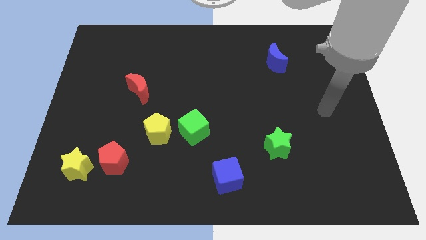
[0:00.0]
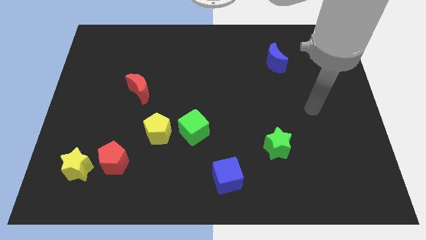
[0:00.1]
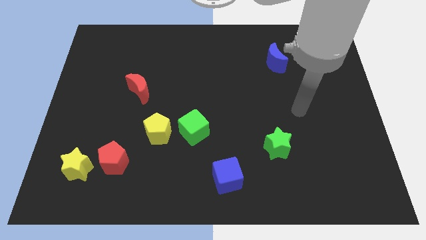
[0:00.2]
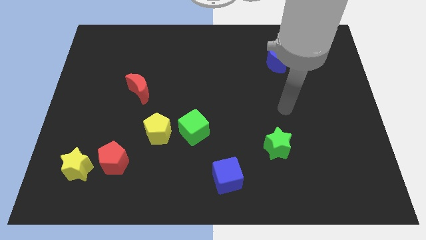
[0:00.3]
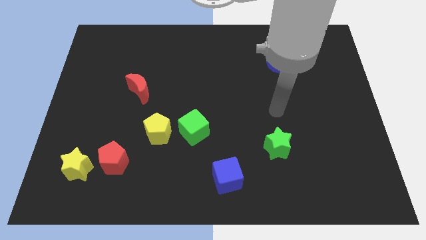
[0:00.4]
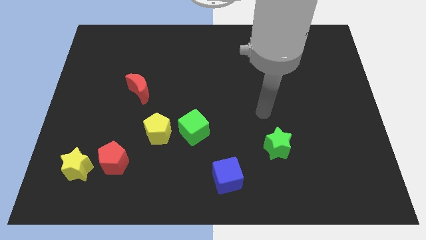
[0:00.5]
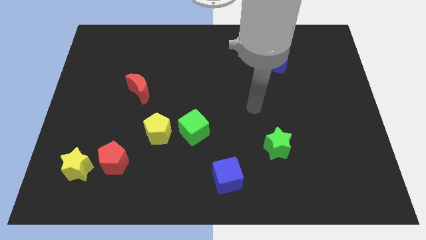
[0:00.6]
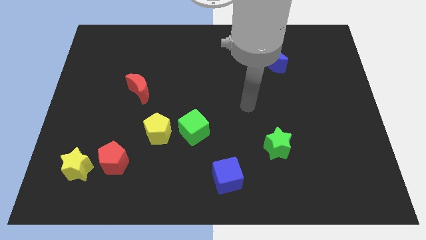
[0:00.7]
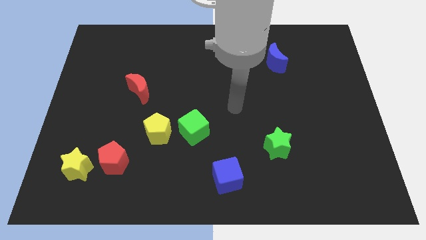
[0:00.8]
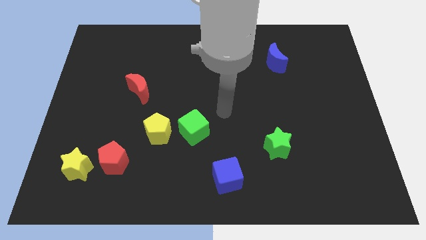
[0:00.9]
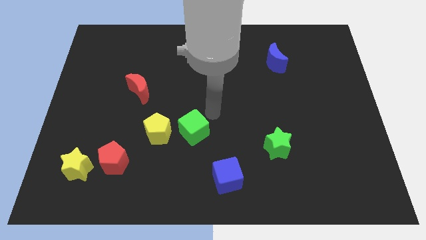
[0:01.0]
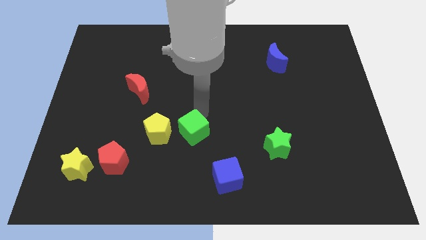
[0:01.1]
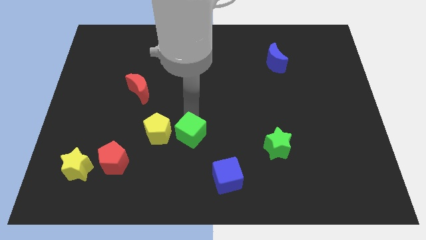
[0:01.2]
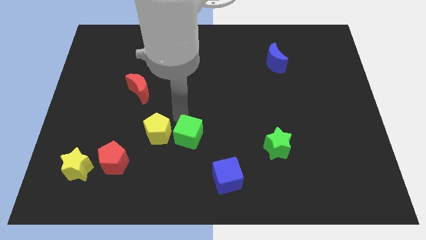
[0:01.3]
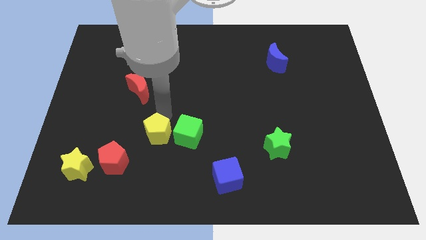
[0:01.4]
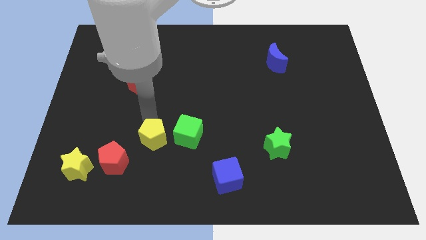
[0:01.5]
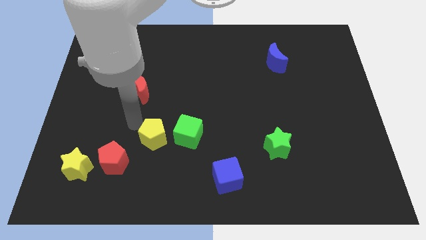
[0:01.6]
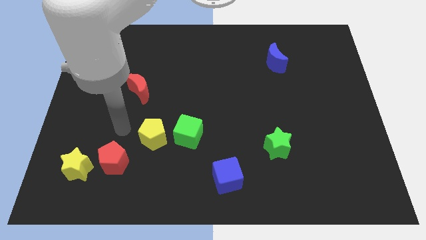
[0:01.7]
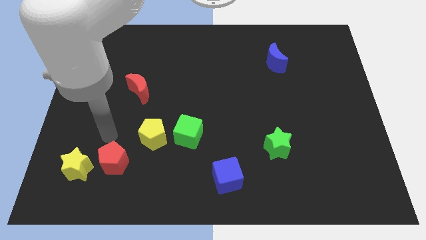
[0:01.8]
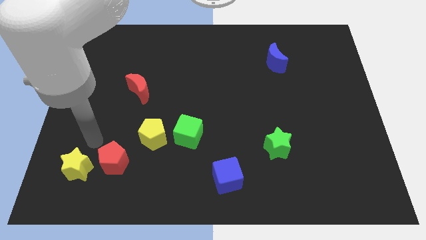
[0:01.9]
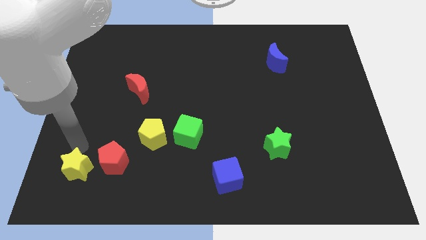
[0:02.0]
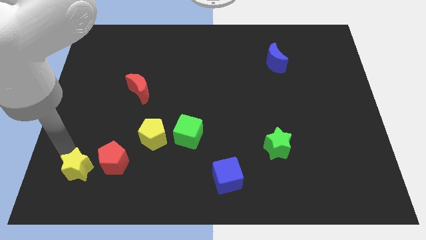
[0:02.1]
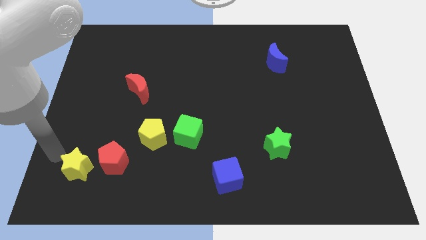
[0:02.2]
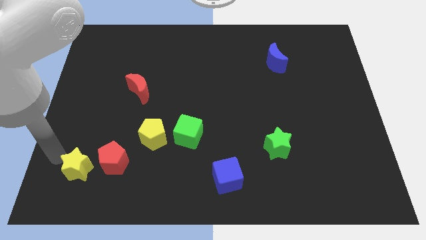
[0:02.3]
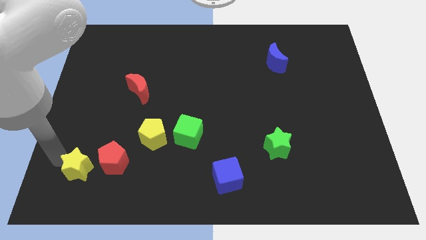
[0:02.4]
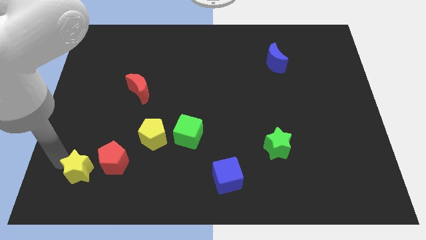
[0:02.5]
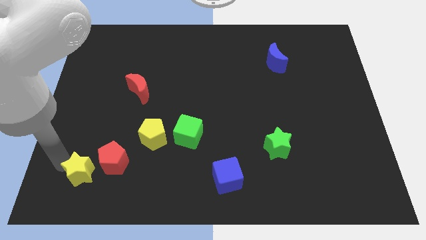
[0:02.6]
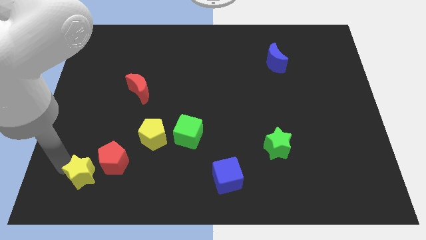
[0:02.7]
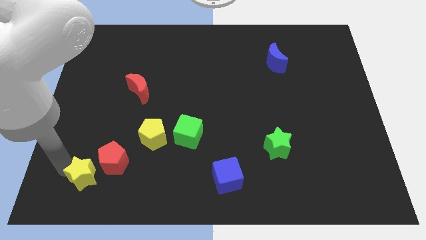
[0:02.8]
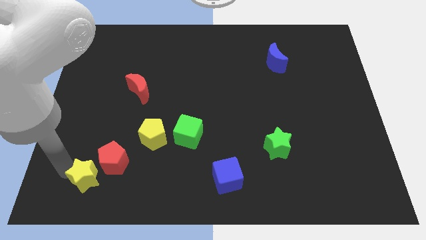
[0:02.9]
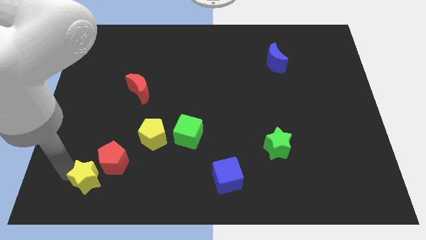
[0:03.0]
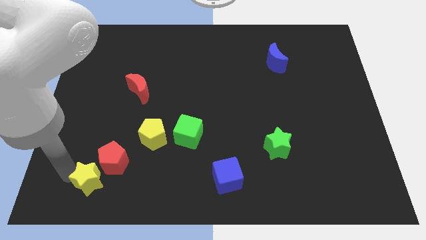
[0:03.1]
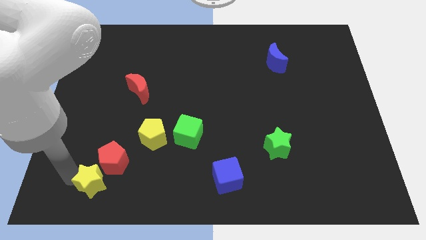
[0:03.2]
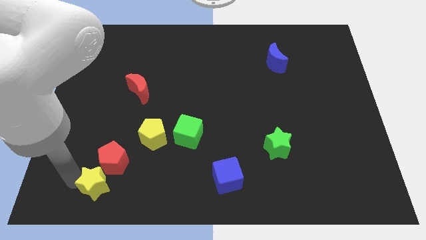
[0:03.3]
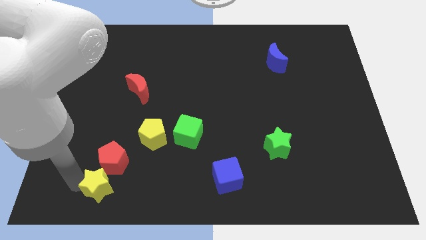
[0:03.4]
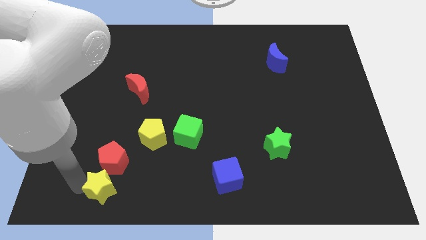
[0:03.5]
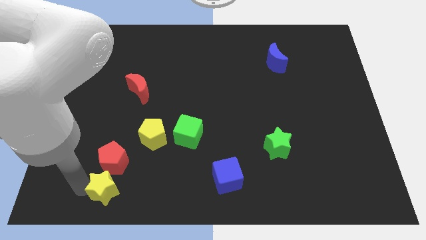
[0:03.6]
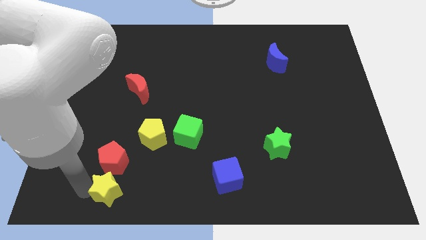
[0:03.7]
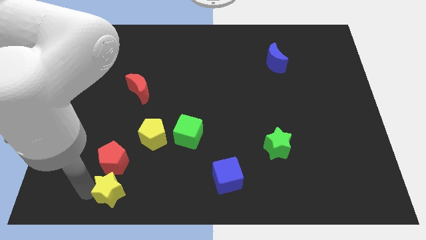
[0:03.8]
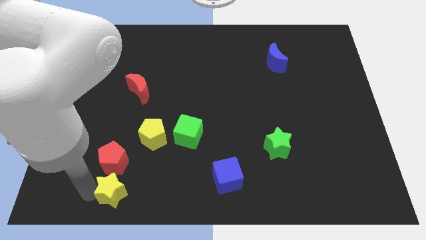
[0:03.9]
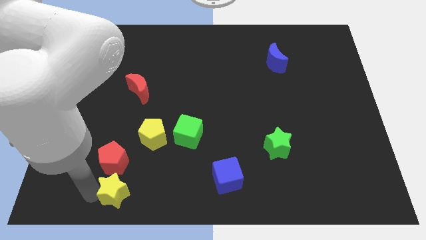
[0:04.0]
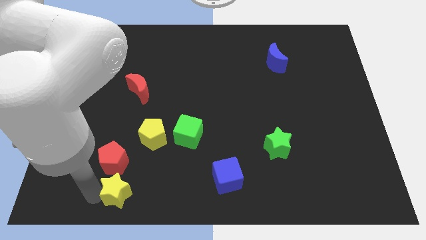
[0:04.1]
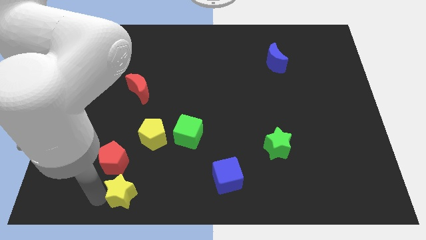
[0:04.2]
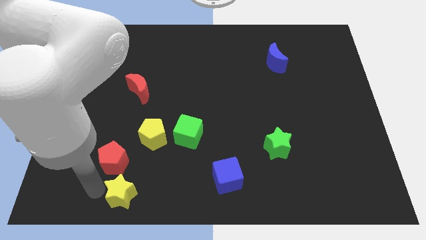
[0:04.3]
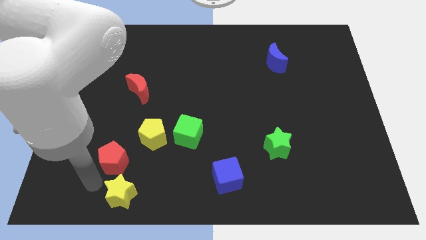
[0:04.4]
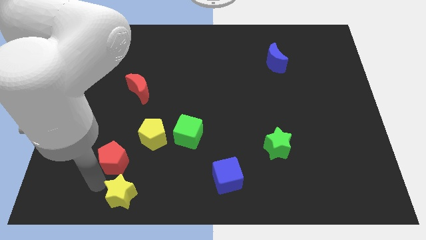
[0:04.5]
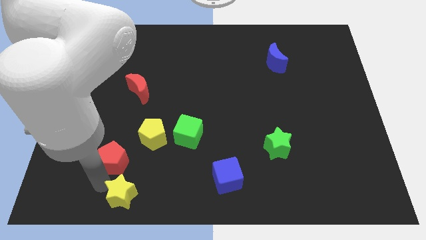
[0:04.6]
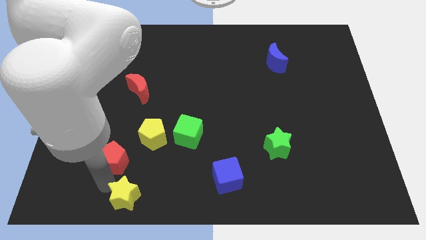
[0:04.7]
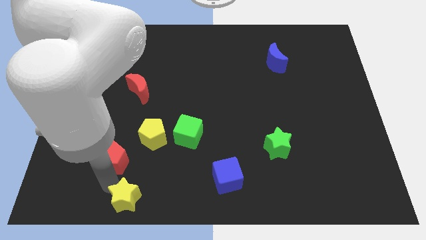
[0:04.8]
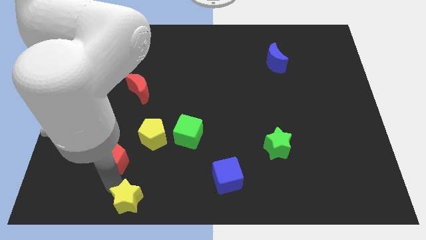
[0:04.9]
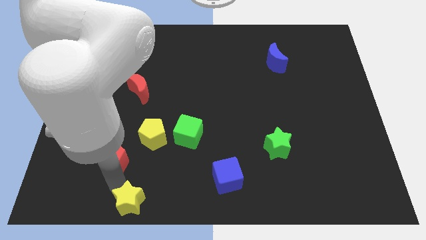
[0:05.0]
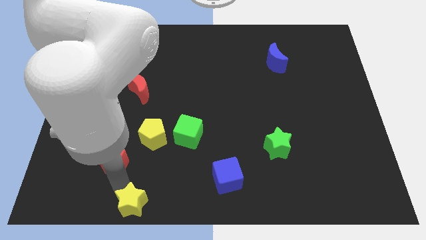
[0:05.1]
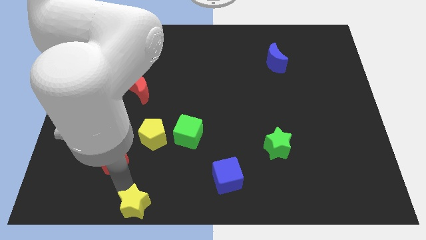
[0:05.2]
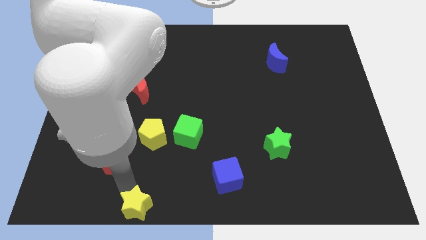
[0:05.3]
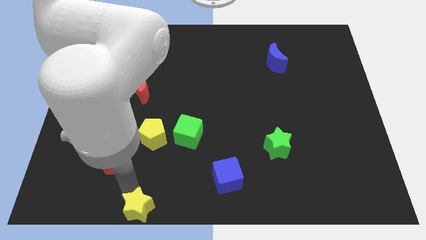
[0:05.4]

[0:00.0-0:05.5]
push the yellow star to the bottom
